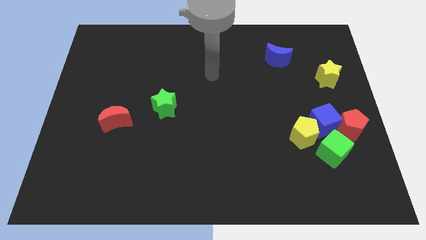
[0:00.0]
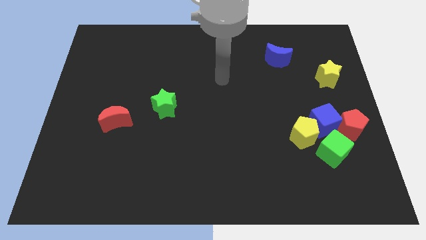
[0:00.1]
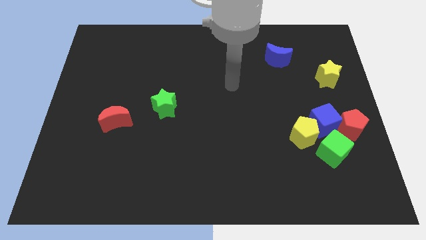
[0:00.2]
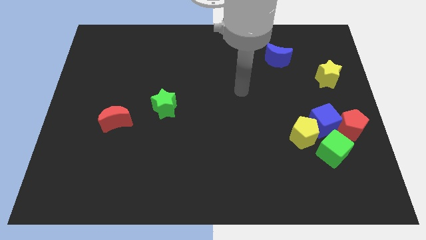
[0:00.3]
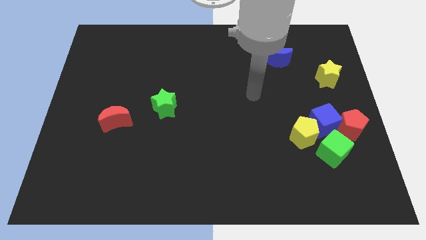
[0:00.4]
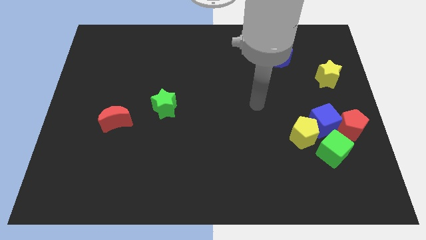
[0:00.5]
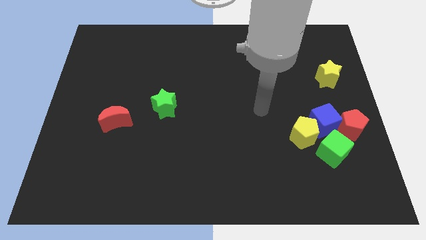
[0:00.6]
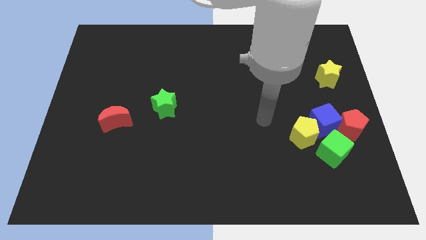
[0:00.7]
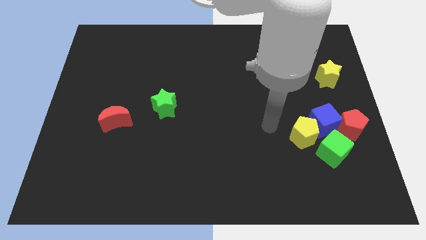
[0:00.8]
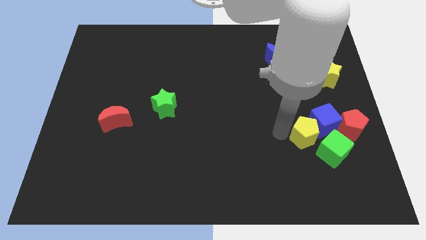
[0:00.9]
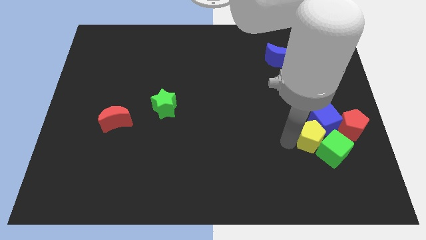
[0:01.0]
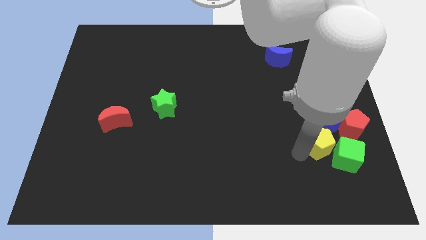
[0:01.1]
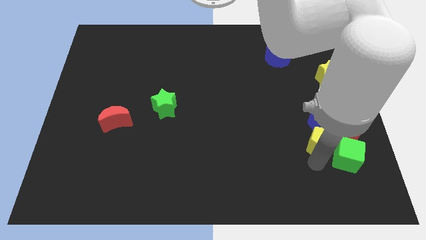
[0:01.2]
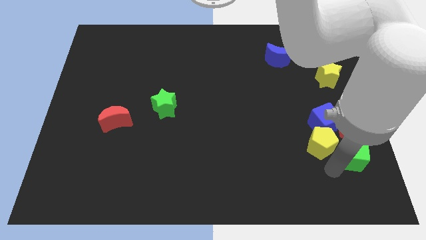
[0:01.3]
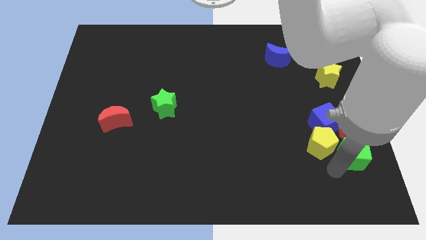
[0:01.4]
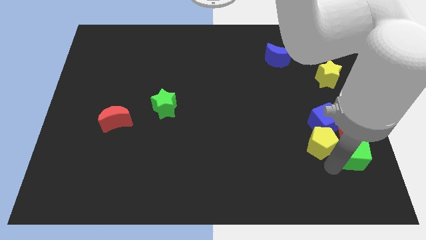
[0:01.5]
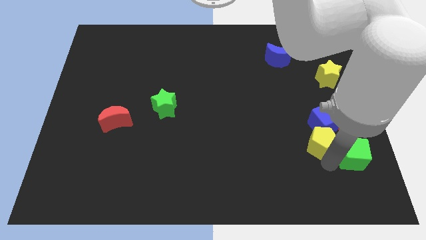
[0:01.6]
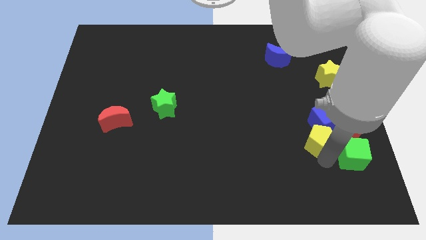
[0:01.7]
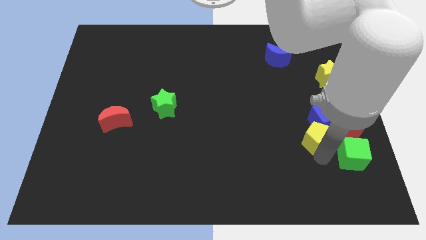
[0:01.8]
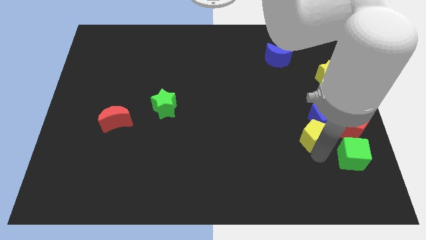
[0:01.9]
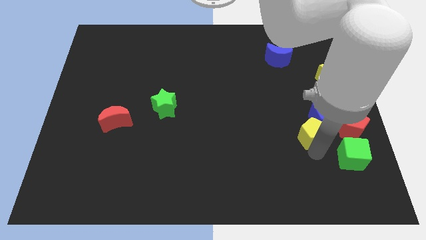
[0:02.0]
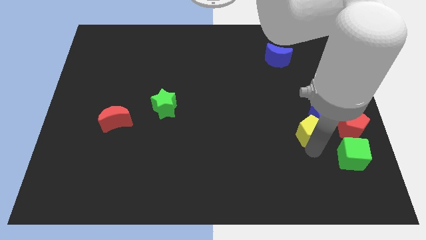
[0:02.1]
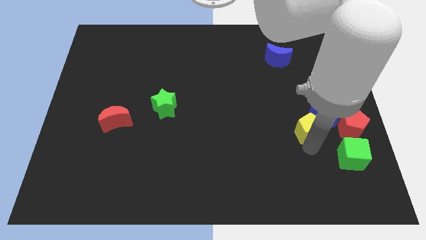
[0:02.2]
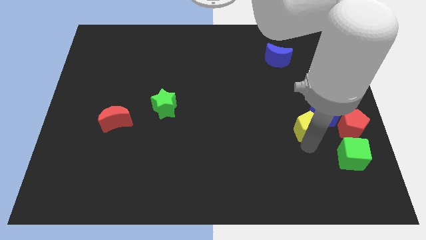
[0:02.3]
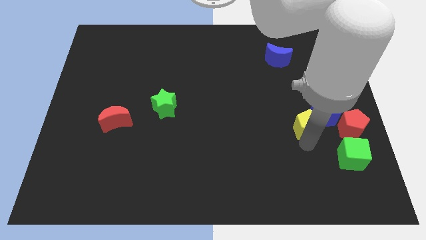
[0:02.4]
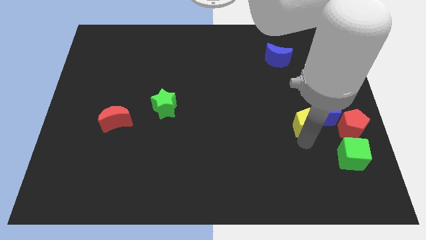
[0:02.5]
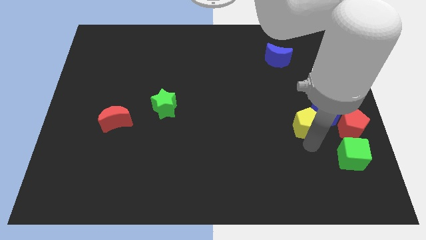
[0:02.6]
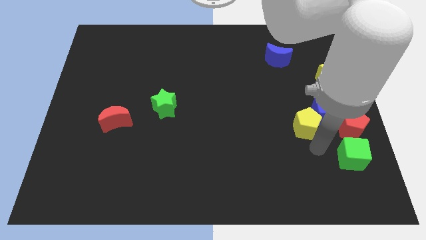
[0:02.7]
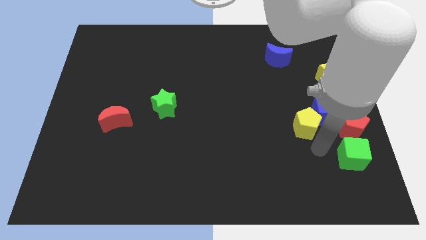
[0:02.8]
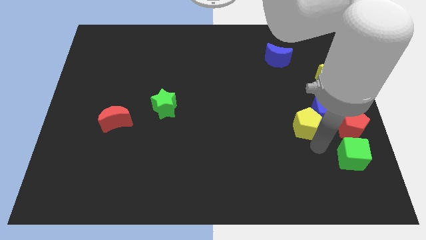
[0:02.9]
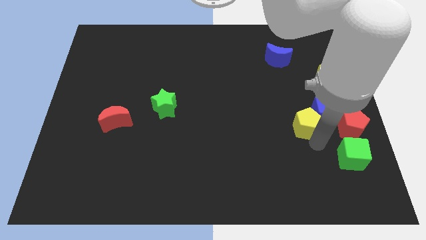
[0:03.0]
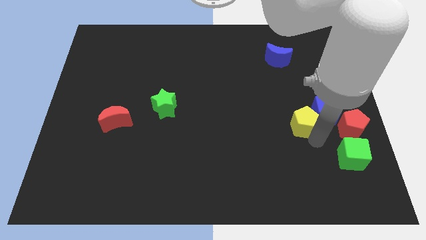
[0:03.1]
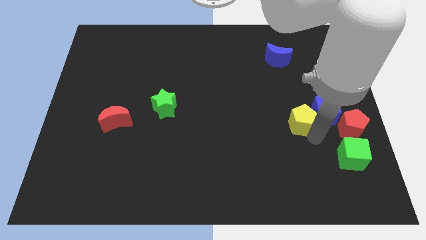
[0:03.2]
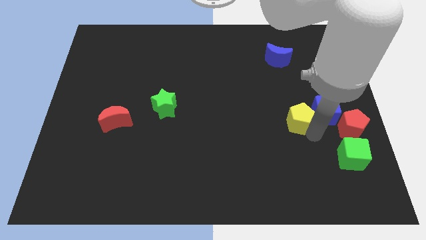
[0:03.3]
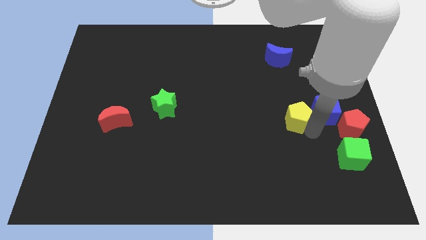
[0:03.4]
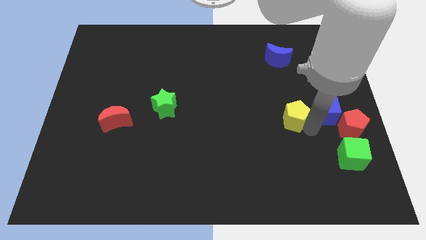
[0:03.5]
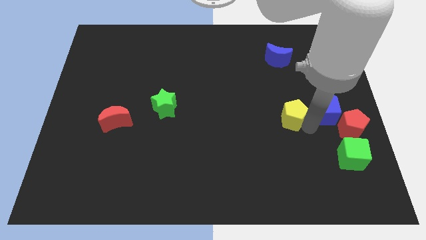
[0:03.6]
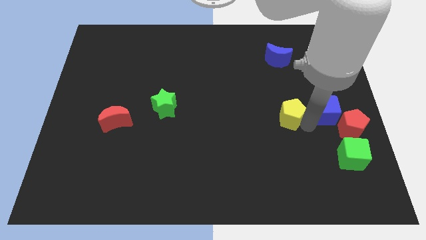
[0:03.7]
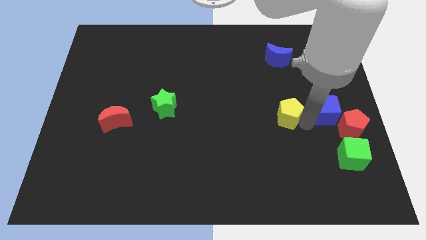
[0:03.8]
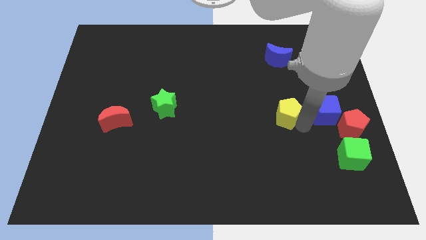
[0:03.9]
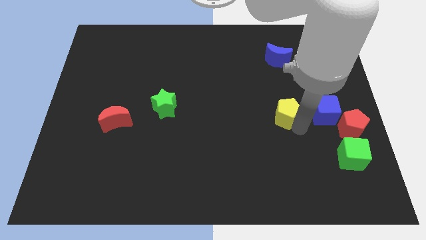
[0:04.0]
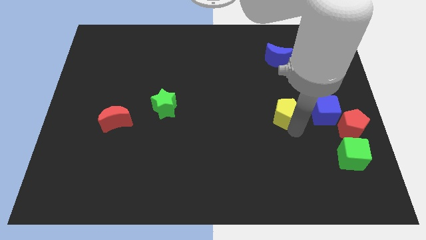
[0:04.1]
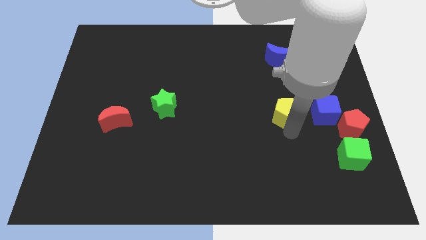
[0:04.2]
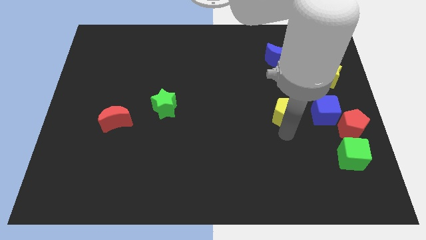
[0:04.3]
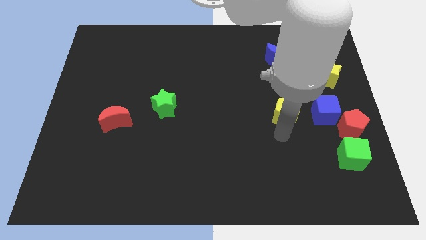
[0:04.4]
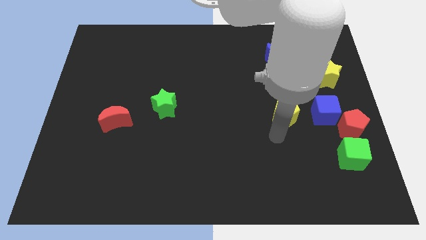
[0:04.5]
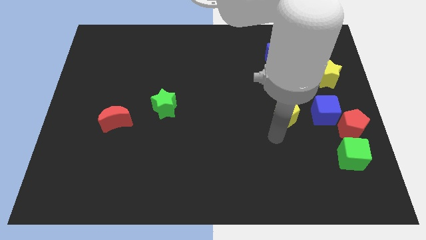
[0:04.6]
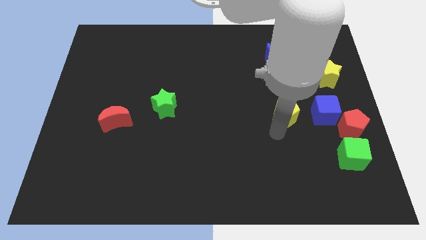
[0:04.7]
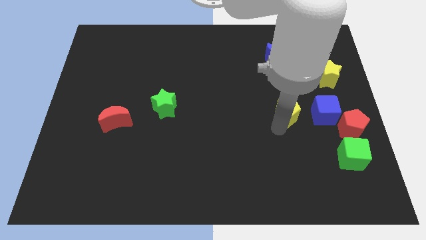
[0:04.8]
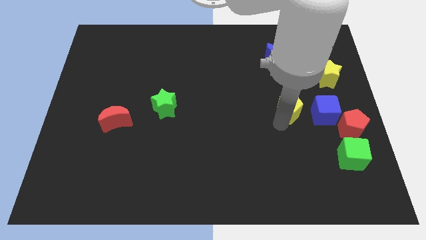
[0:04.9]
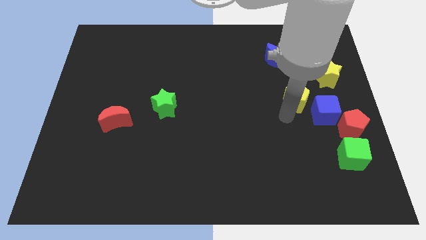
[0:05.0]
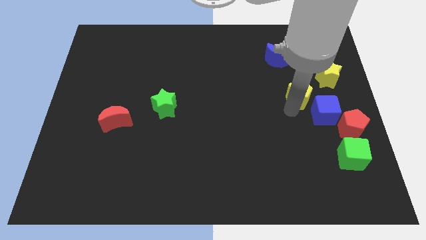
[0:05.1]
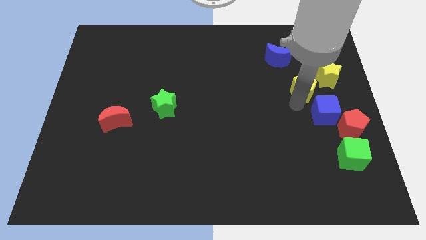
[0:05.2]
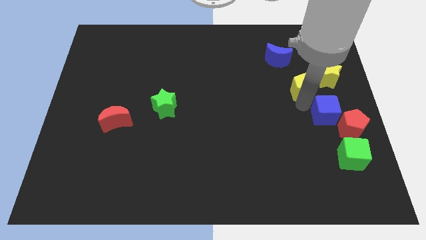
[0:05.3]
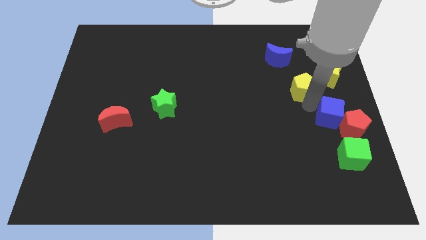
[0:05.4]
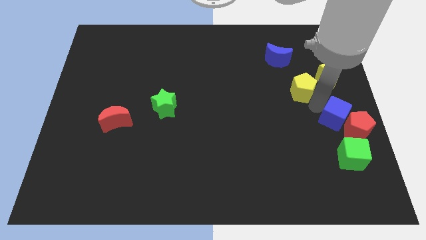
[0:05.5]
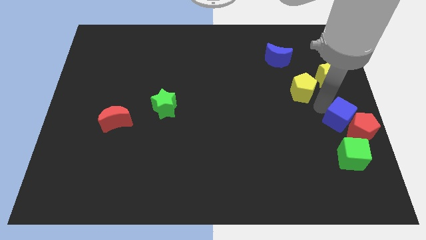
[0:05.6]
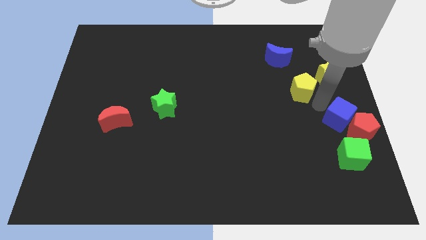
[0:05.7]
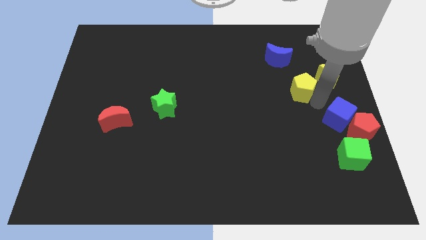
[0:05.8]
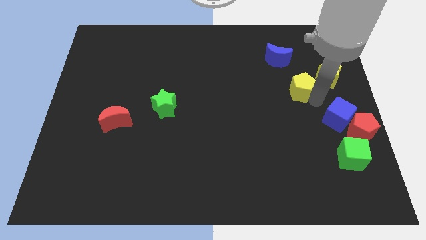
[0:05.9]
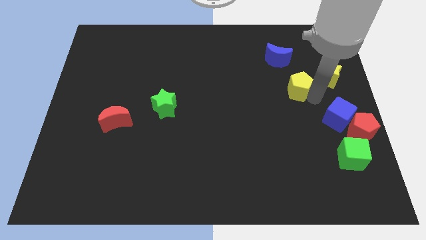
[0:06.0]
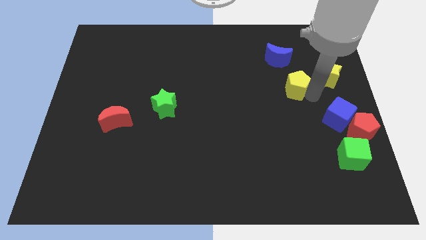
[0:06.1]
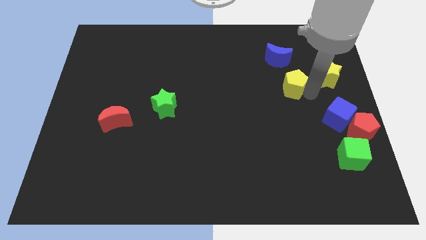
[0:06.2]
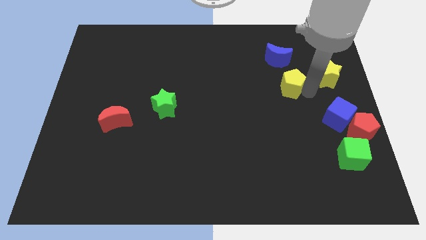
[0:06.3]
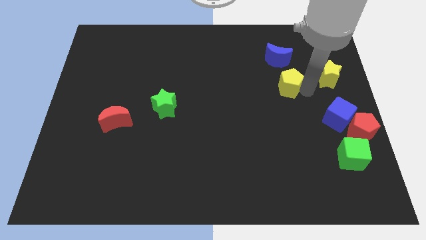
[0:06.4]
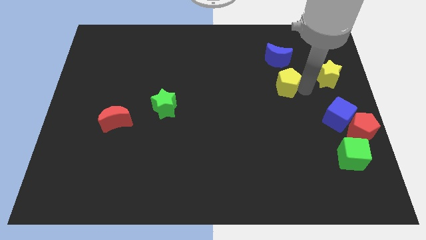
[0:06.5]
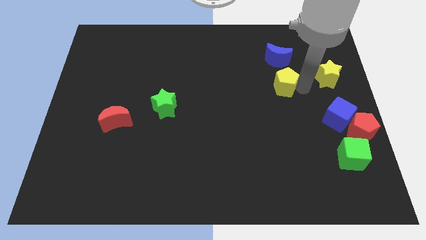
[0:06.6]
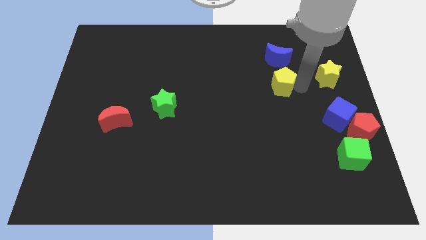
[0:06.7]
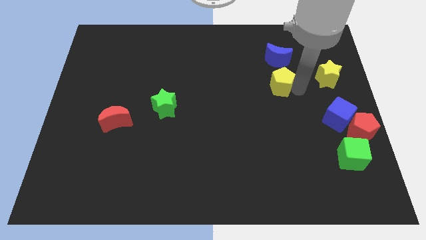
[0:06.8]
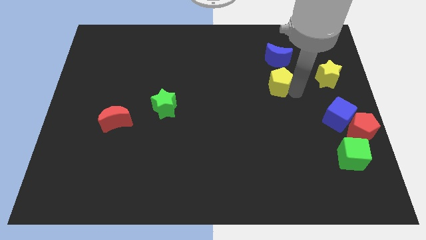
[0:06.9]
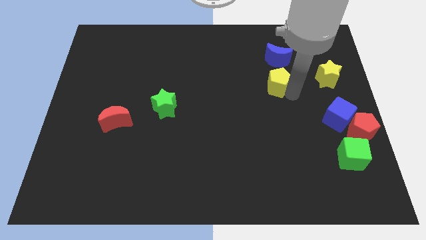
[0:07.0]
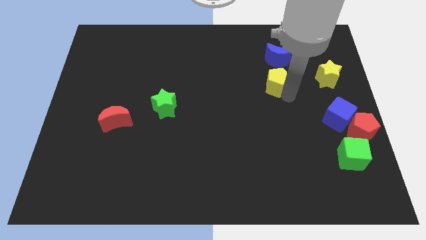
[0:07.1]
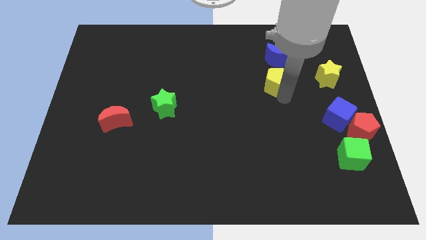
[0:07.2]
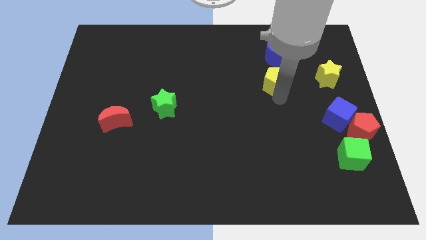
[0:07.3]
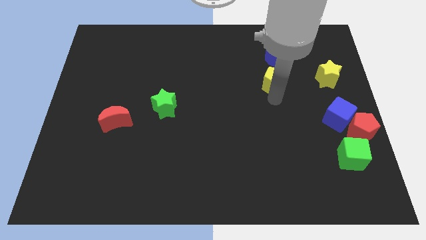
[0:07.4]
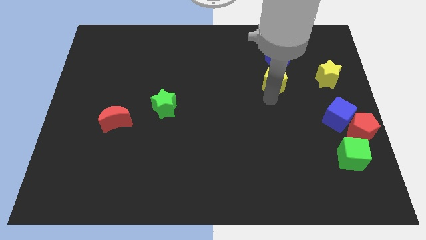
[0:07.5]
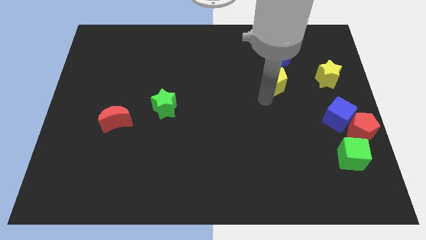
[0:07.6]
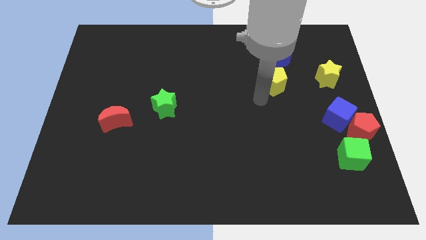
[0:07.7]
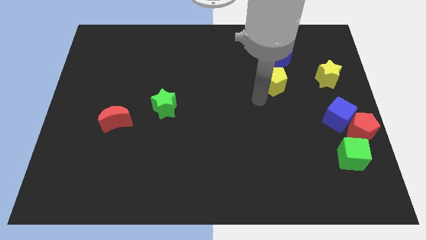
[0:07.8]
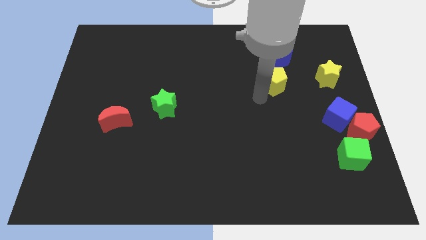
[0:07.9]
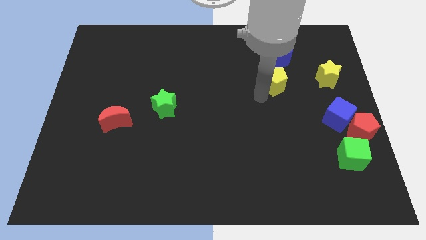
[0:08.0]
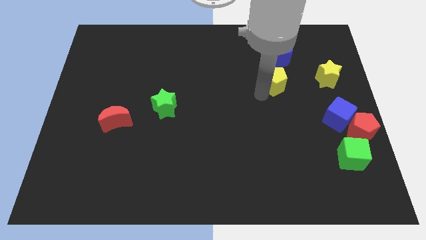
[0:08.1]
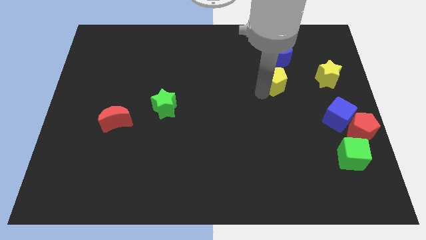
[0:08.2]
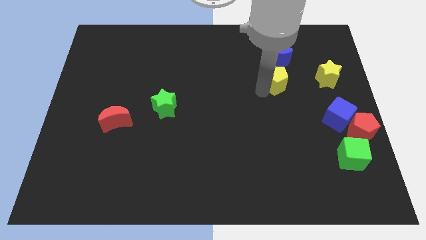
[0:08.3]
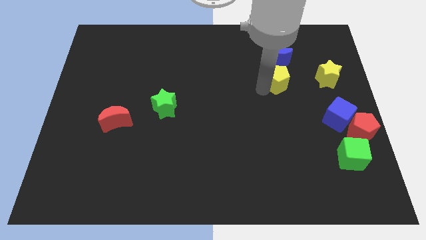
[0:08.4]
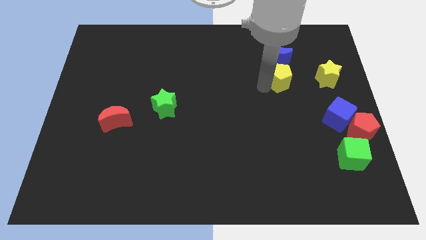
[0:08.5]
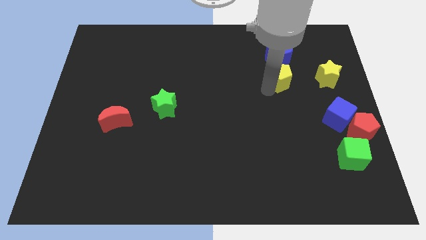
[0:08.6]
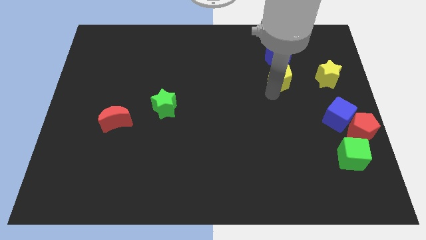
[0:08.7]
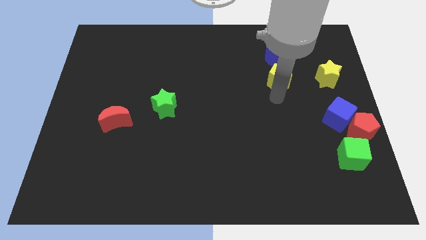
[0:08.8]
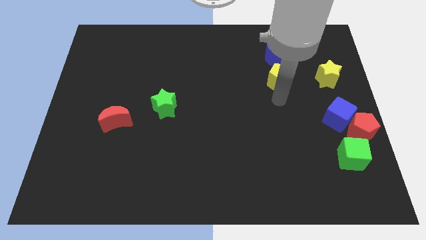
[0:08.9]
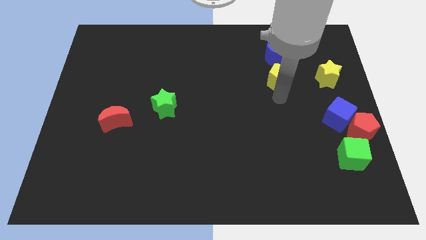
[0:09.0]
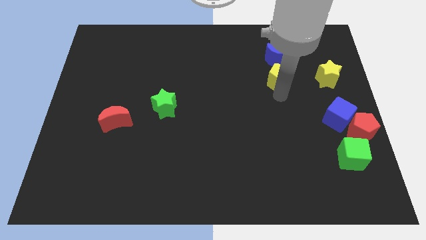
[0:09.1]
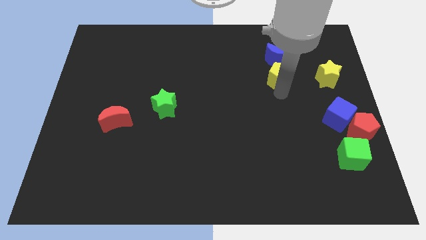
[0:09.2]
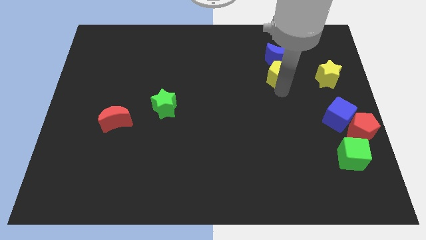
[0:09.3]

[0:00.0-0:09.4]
push the yellow pentagon close to the blue moon
